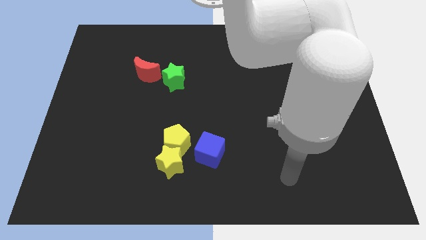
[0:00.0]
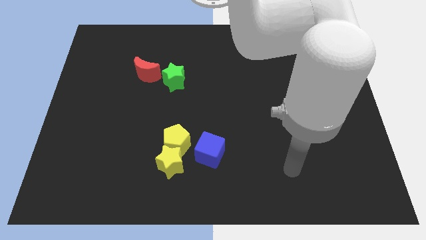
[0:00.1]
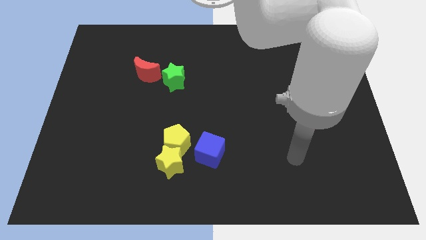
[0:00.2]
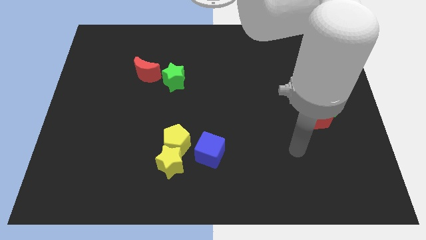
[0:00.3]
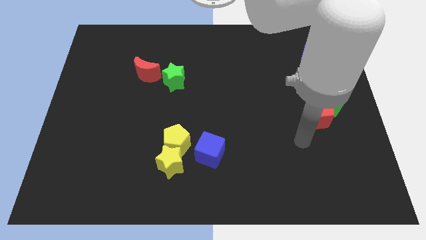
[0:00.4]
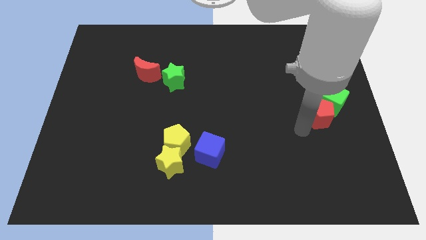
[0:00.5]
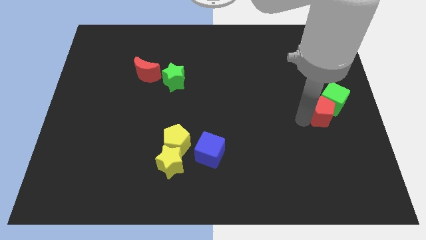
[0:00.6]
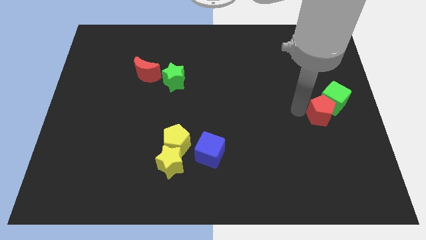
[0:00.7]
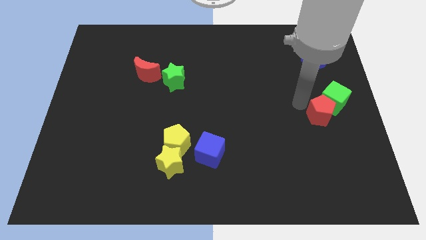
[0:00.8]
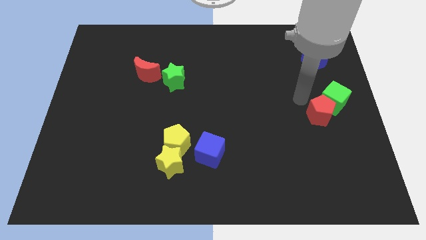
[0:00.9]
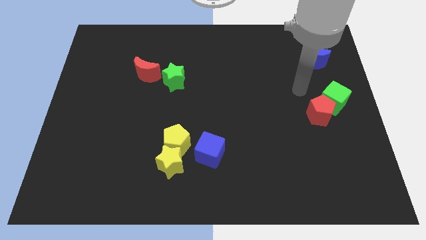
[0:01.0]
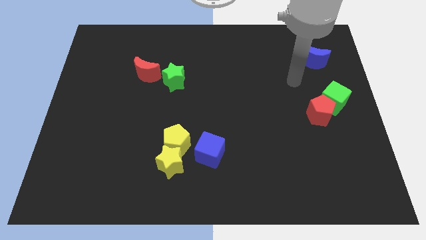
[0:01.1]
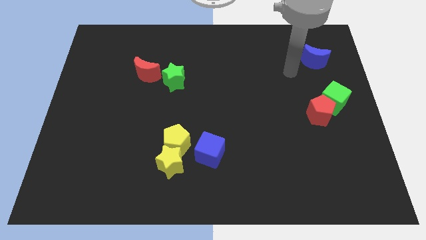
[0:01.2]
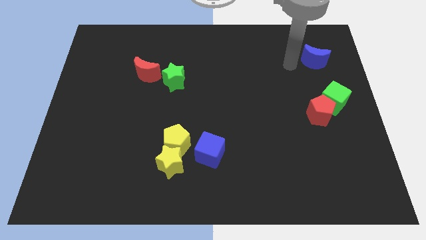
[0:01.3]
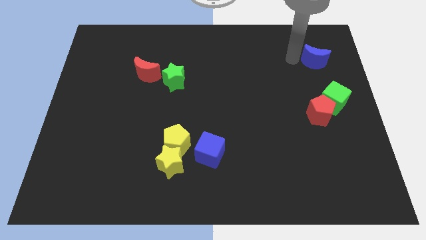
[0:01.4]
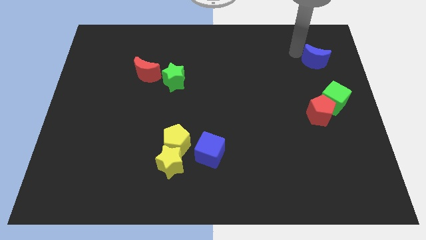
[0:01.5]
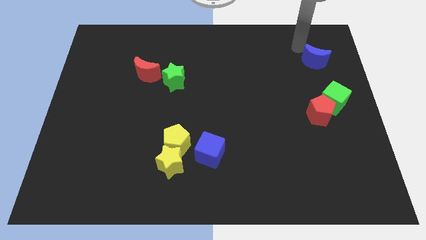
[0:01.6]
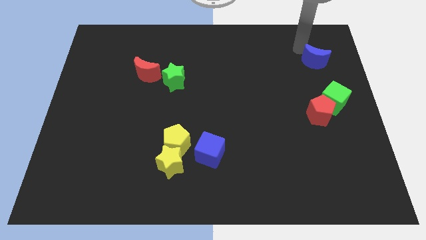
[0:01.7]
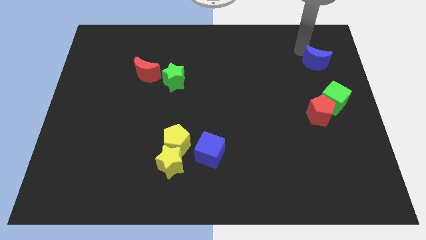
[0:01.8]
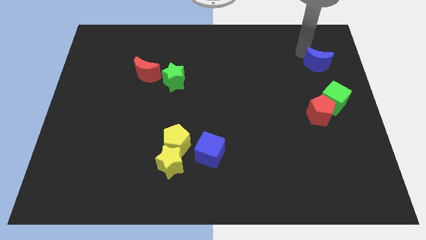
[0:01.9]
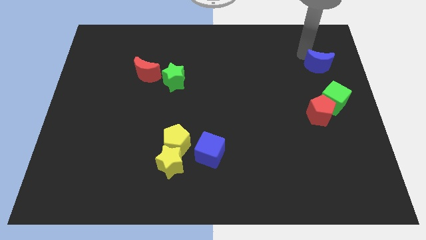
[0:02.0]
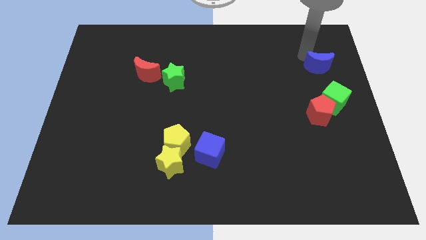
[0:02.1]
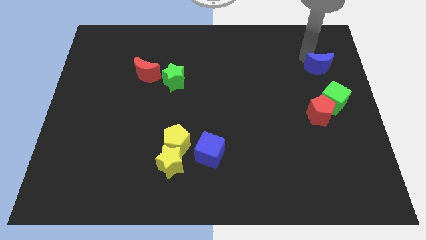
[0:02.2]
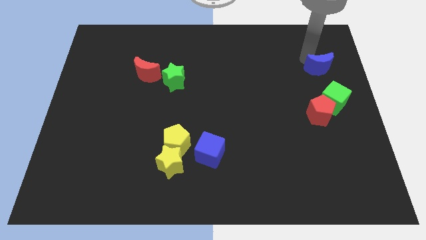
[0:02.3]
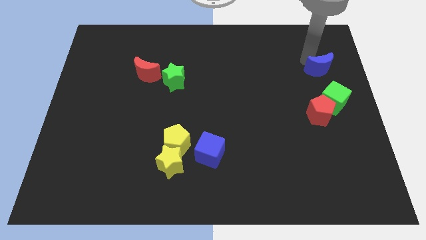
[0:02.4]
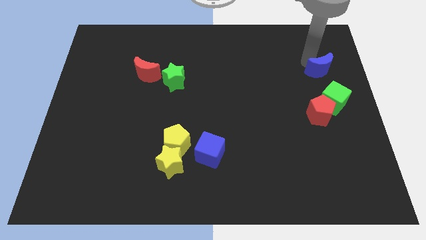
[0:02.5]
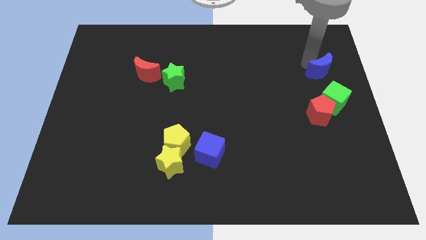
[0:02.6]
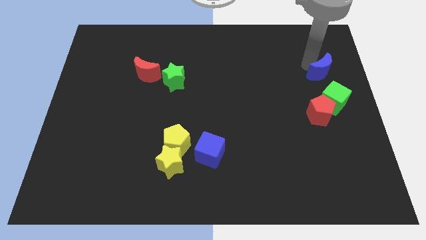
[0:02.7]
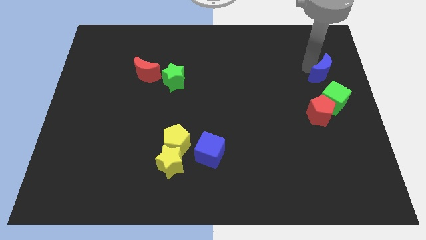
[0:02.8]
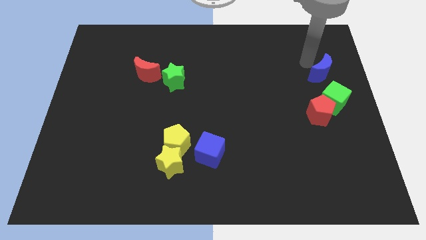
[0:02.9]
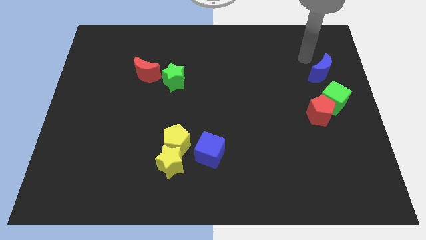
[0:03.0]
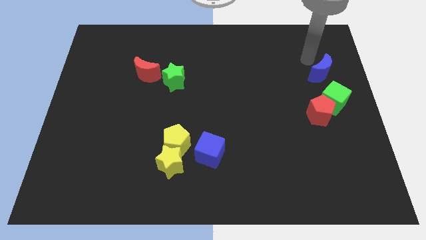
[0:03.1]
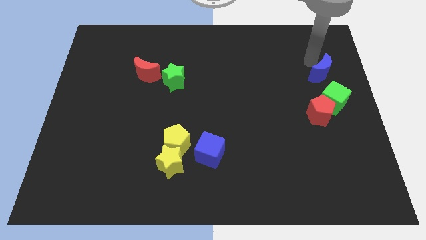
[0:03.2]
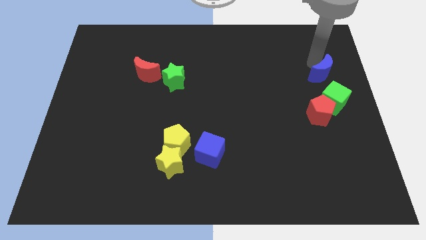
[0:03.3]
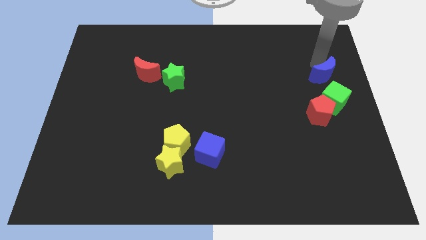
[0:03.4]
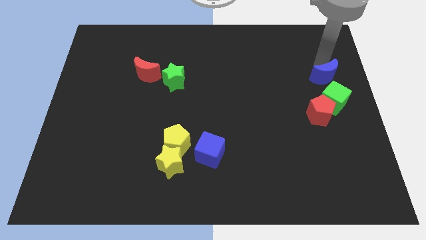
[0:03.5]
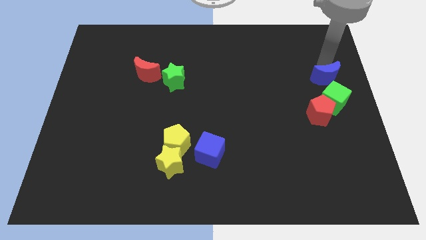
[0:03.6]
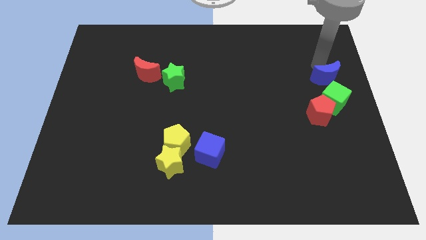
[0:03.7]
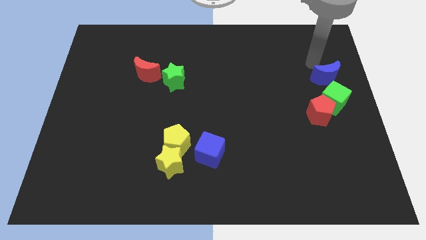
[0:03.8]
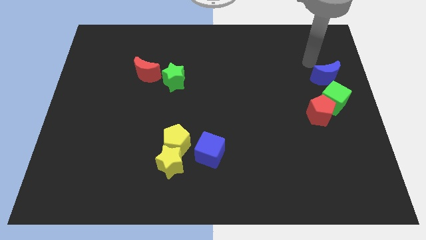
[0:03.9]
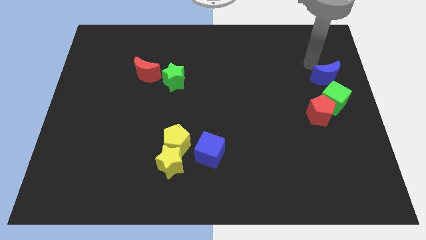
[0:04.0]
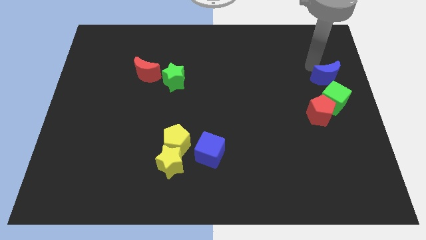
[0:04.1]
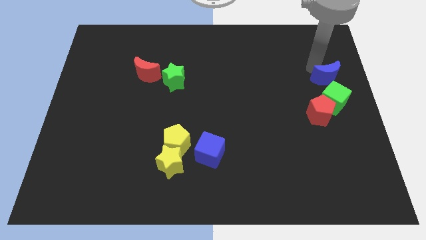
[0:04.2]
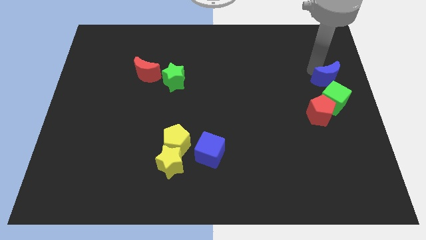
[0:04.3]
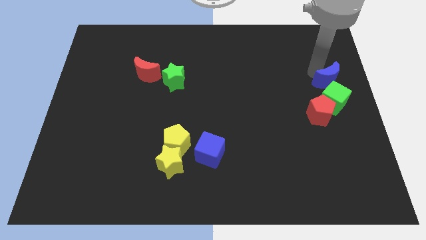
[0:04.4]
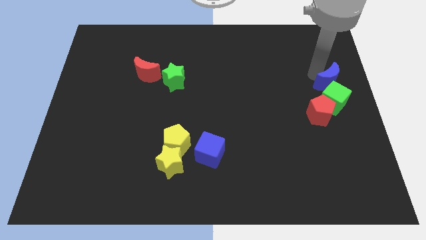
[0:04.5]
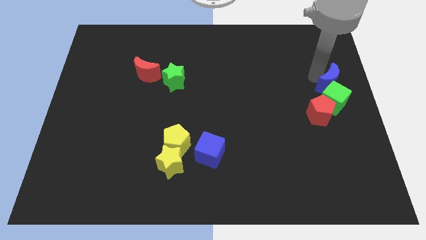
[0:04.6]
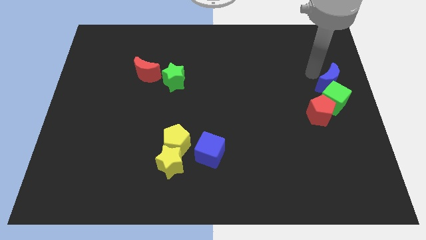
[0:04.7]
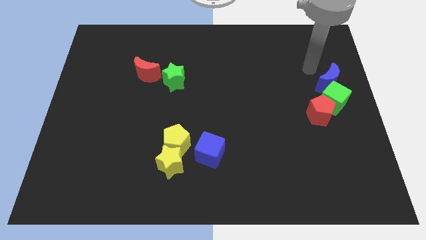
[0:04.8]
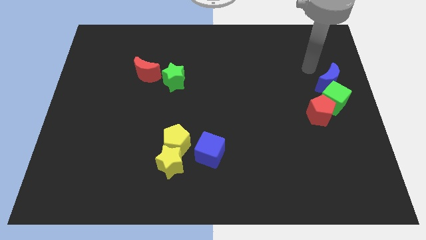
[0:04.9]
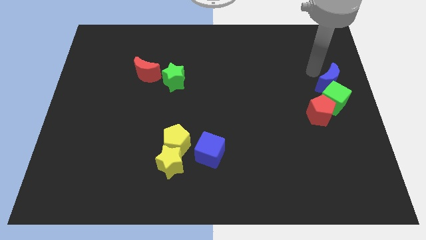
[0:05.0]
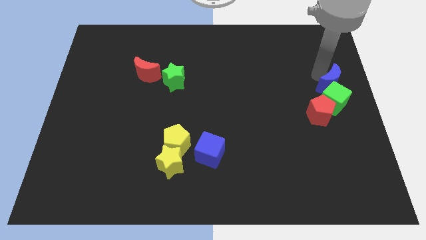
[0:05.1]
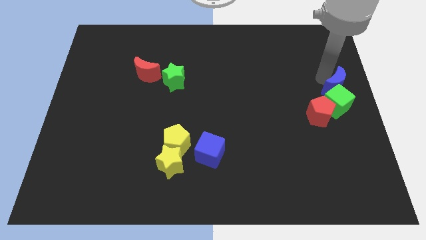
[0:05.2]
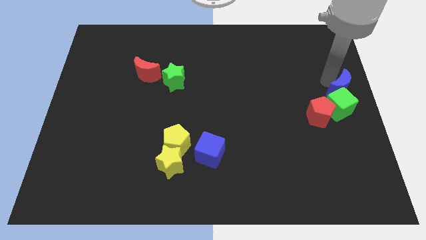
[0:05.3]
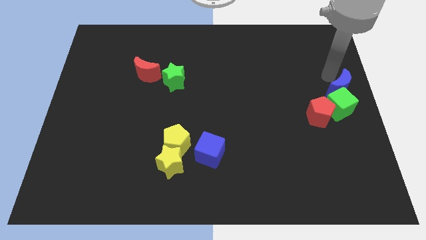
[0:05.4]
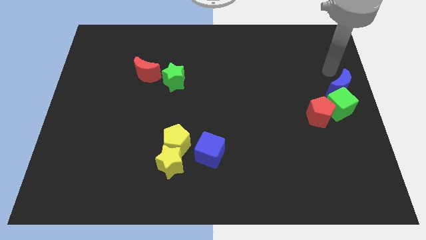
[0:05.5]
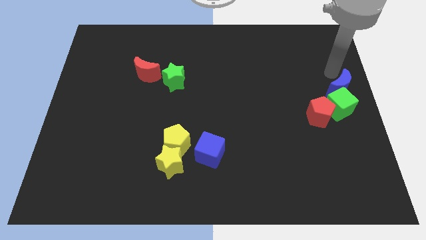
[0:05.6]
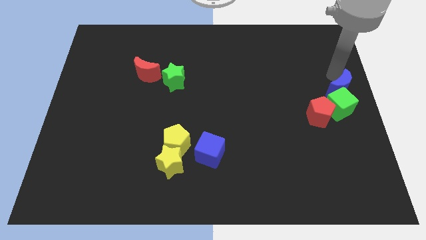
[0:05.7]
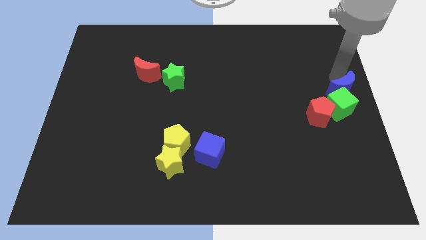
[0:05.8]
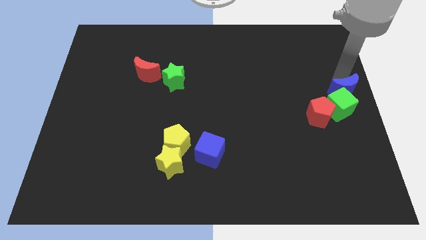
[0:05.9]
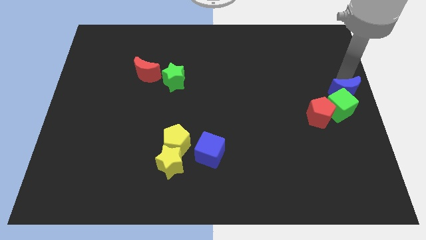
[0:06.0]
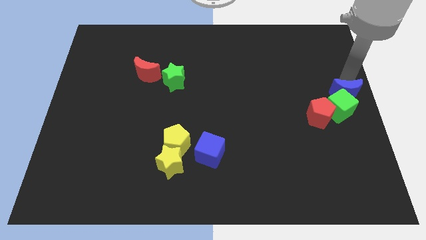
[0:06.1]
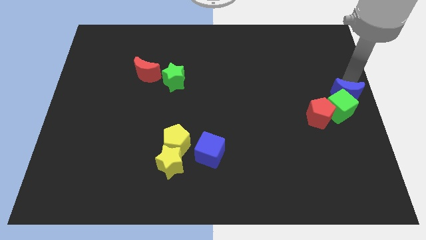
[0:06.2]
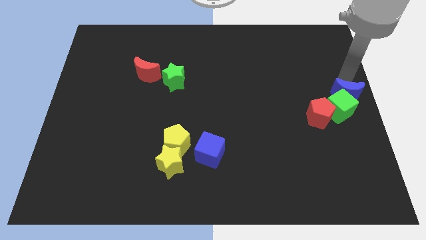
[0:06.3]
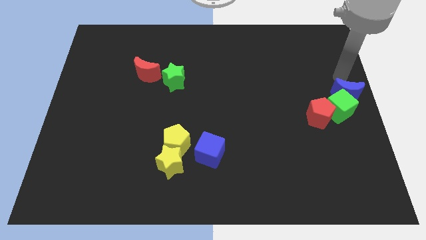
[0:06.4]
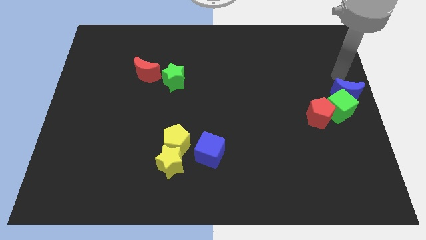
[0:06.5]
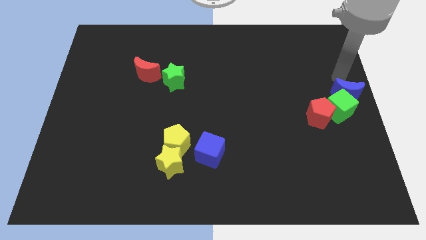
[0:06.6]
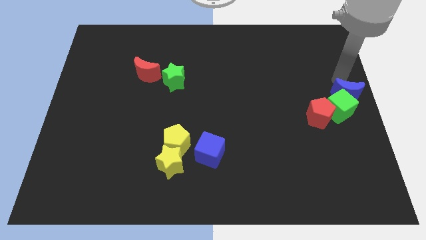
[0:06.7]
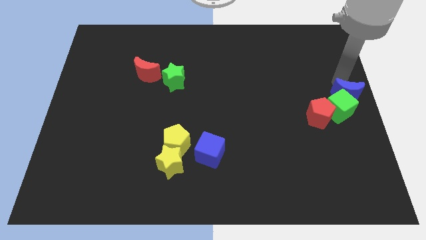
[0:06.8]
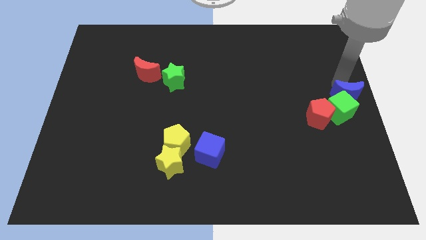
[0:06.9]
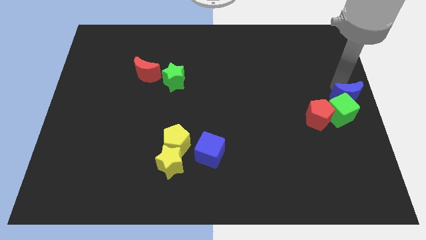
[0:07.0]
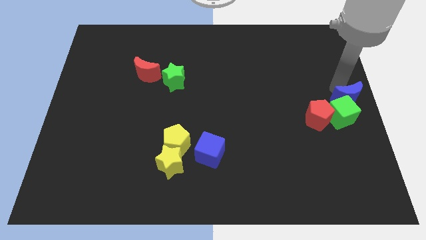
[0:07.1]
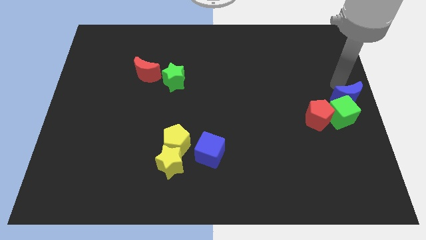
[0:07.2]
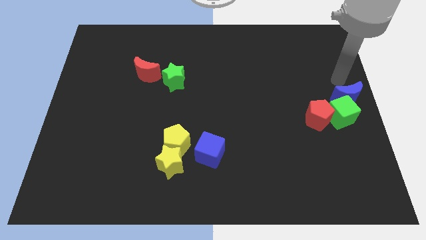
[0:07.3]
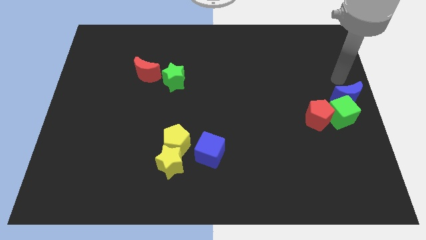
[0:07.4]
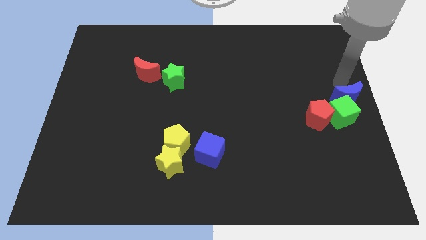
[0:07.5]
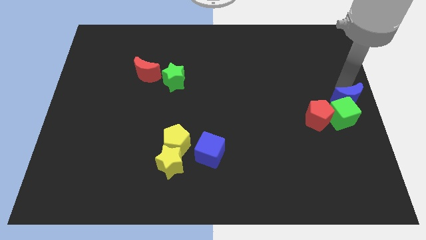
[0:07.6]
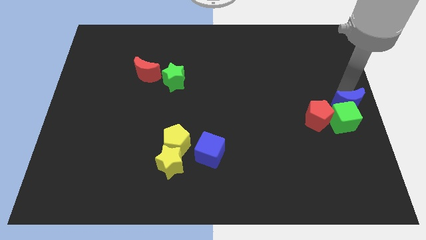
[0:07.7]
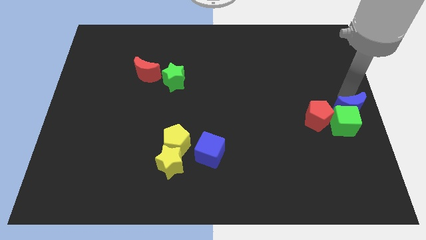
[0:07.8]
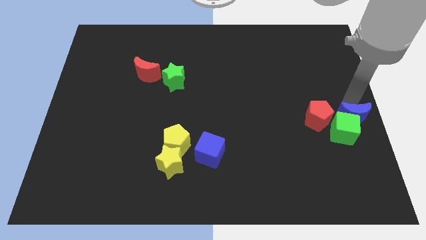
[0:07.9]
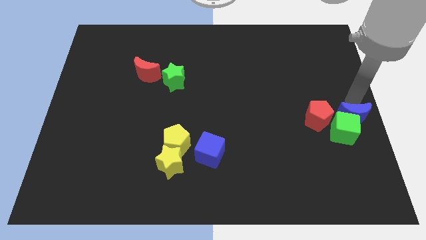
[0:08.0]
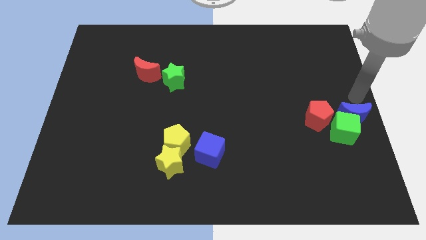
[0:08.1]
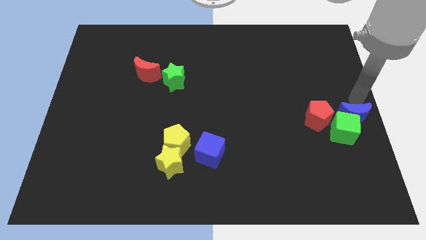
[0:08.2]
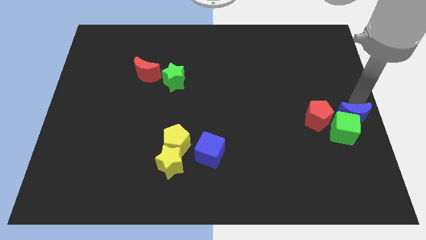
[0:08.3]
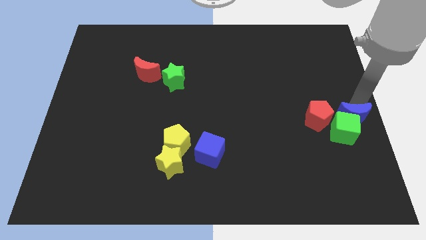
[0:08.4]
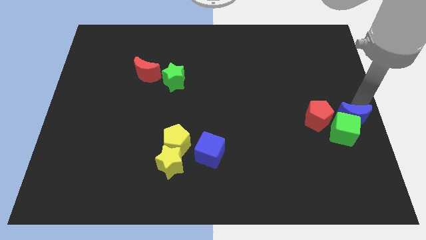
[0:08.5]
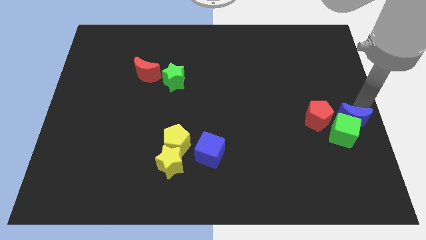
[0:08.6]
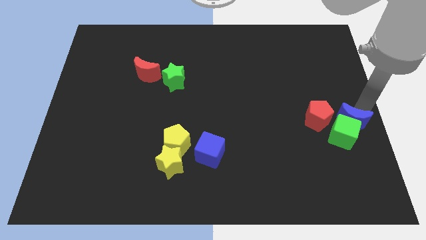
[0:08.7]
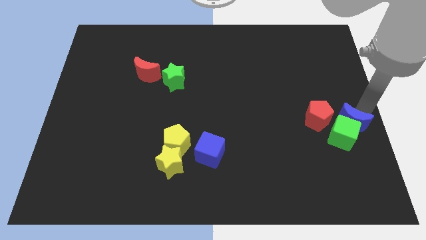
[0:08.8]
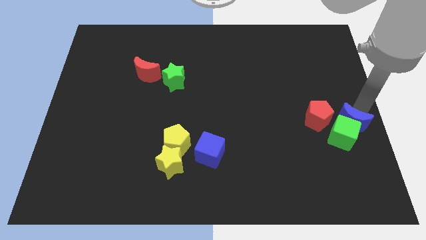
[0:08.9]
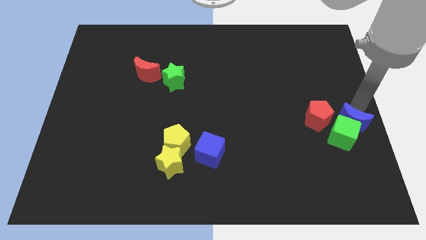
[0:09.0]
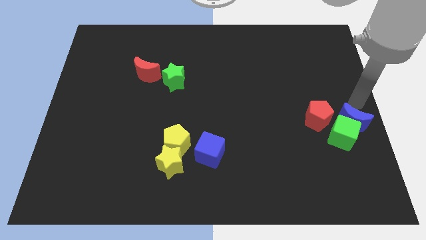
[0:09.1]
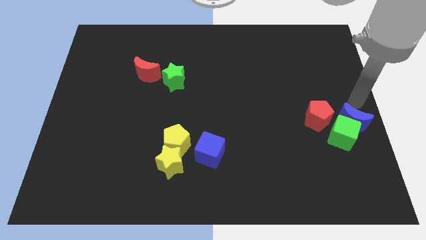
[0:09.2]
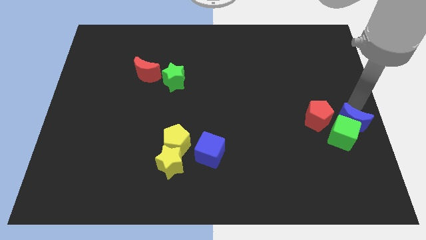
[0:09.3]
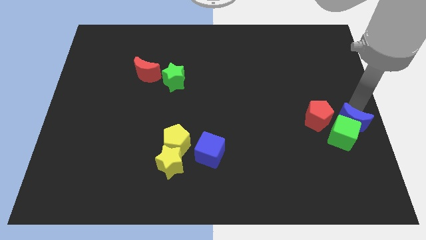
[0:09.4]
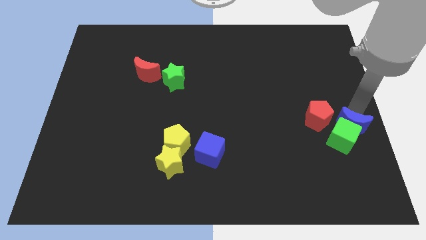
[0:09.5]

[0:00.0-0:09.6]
push the blue moon down
